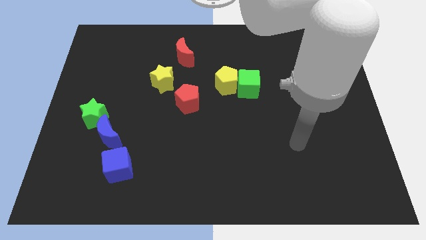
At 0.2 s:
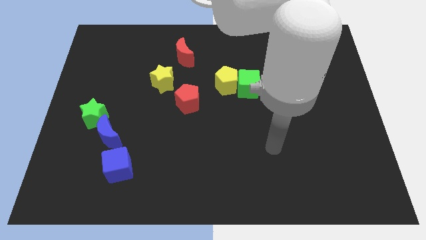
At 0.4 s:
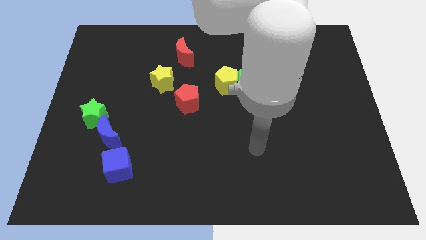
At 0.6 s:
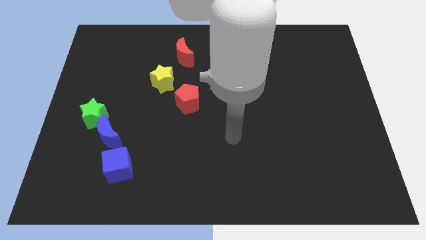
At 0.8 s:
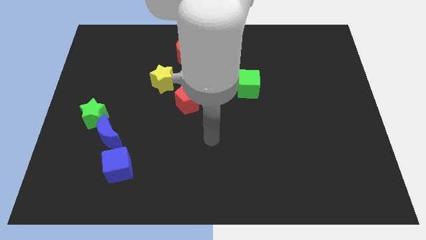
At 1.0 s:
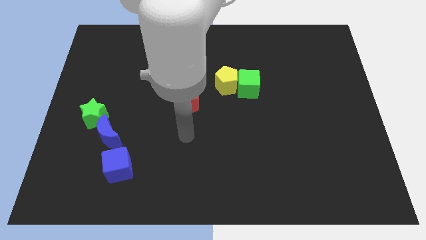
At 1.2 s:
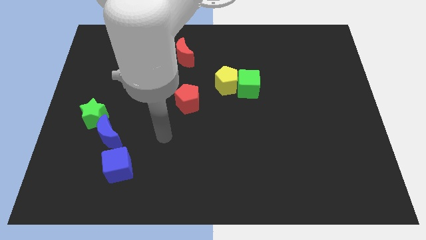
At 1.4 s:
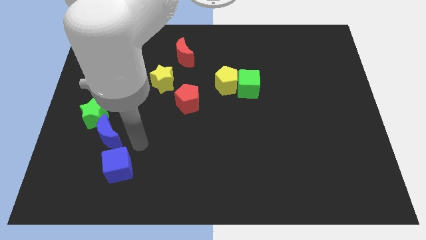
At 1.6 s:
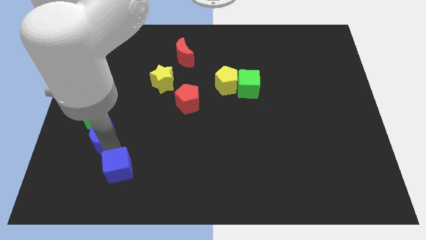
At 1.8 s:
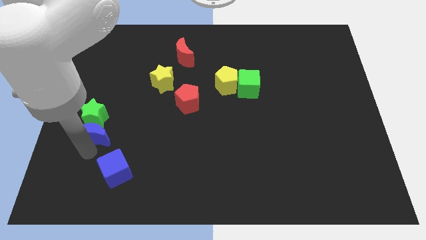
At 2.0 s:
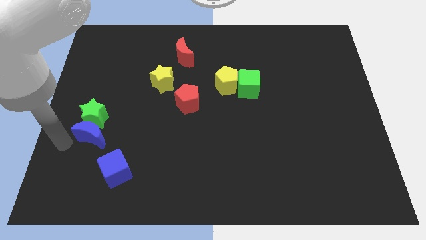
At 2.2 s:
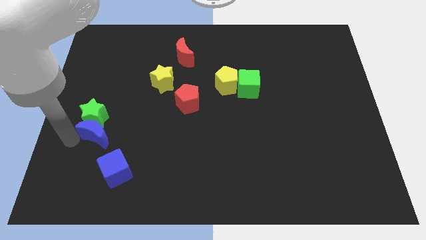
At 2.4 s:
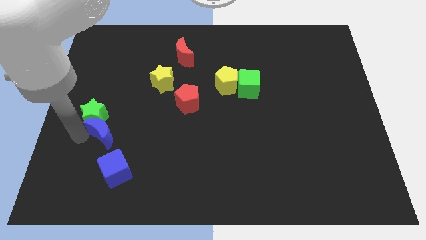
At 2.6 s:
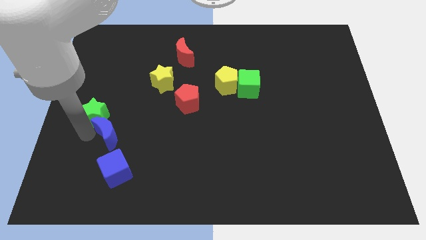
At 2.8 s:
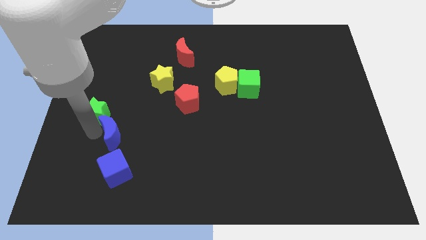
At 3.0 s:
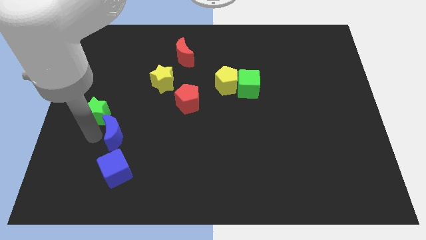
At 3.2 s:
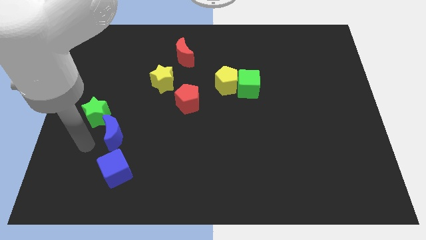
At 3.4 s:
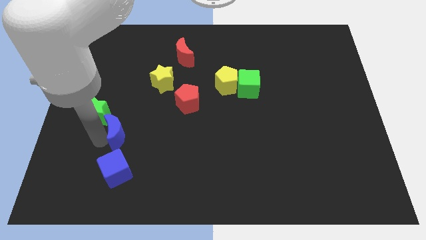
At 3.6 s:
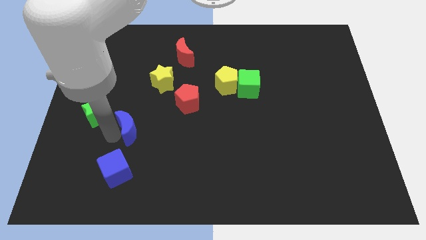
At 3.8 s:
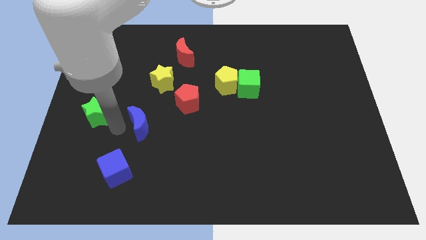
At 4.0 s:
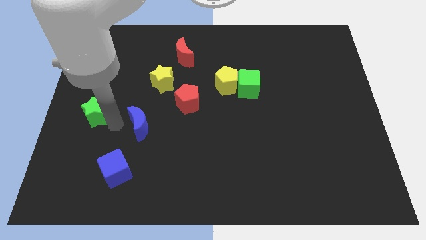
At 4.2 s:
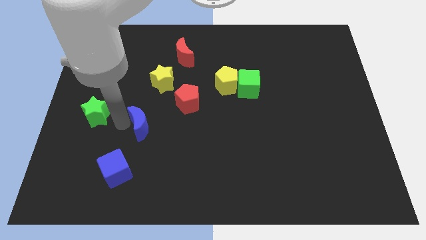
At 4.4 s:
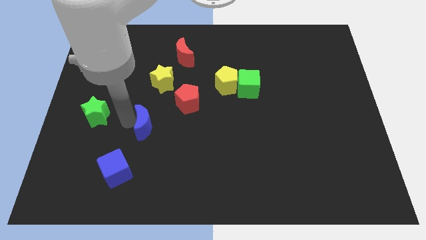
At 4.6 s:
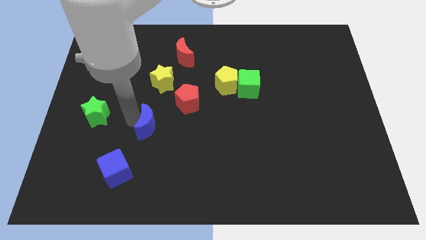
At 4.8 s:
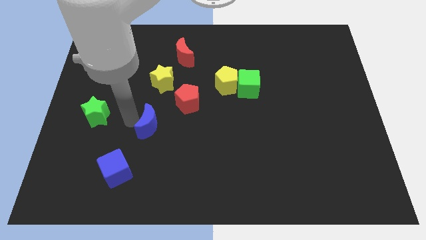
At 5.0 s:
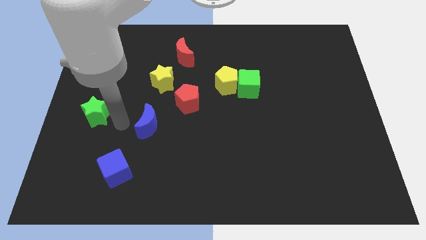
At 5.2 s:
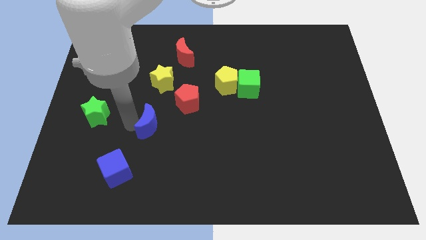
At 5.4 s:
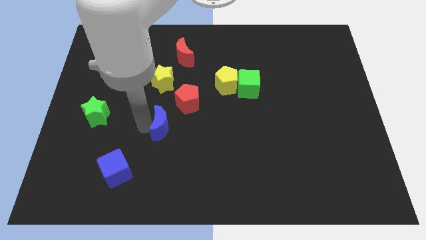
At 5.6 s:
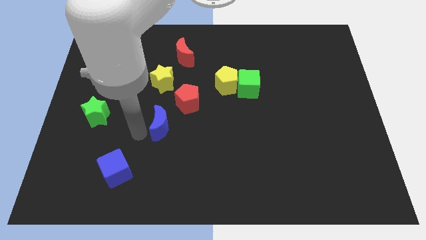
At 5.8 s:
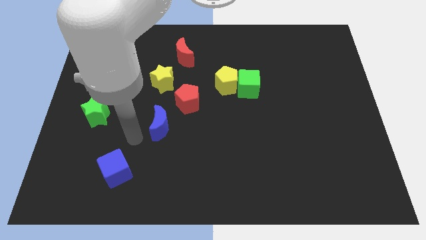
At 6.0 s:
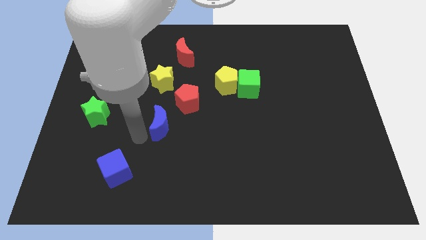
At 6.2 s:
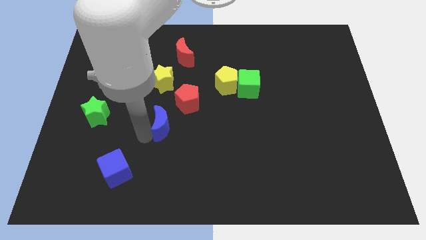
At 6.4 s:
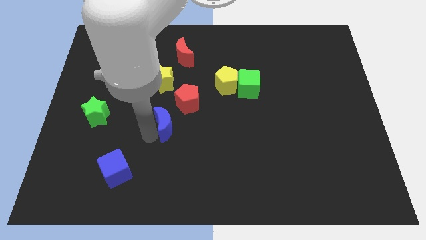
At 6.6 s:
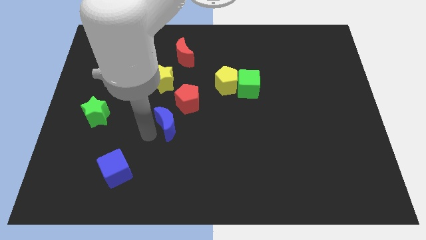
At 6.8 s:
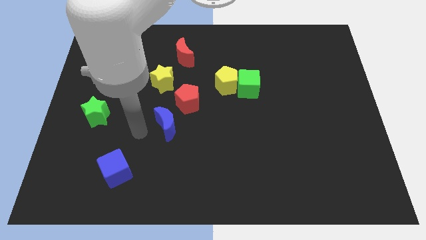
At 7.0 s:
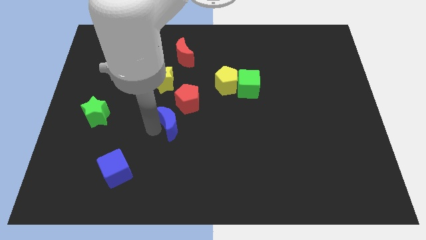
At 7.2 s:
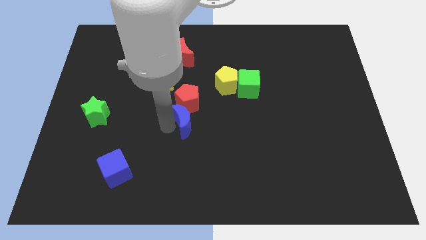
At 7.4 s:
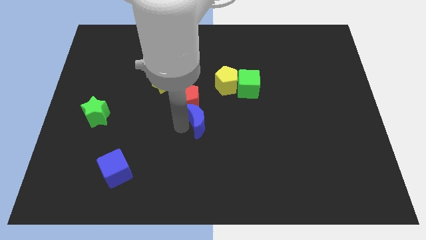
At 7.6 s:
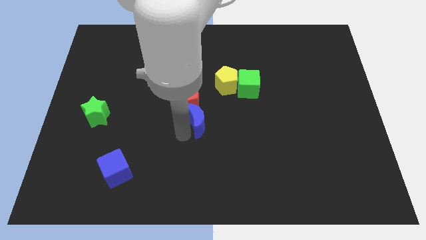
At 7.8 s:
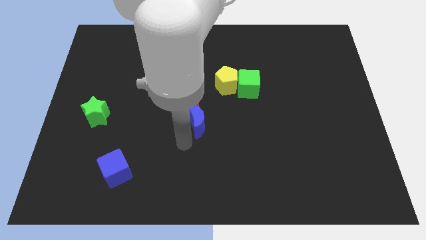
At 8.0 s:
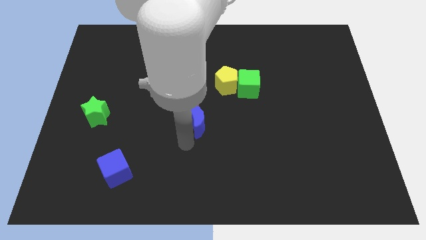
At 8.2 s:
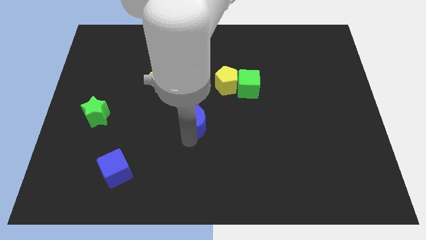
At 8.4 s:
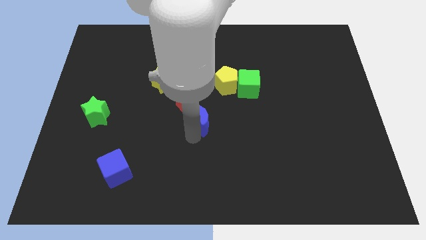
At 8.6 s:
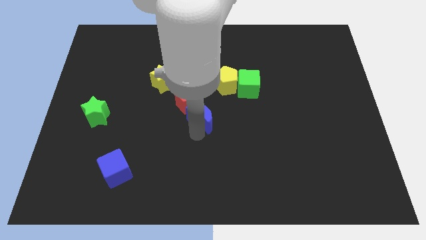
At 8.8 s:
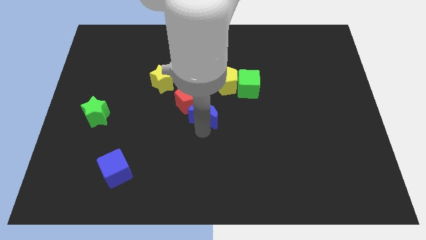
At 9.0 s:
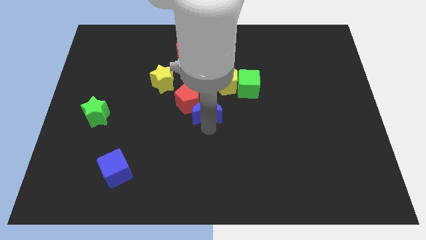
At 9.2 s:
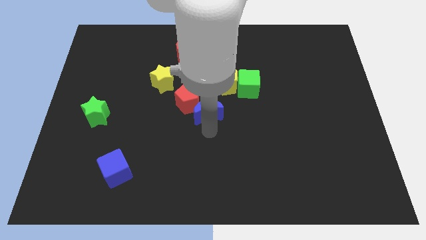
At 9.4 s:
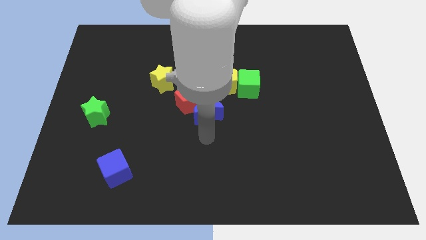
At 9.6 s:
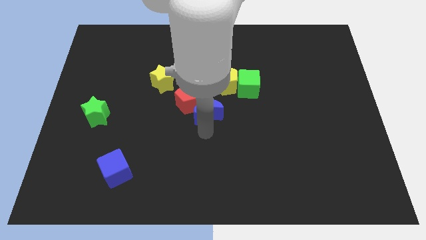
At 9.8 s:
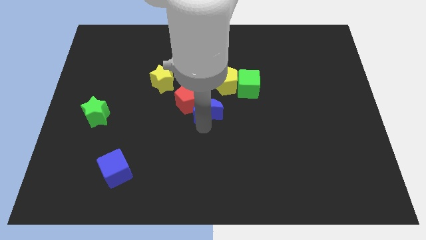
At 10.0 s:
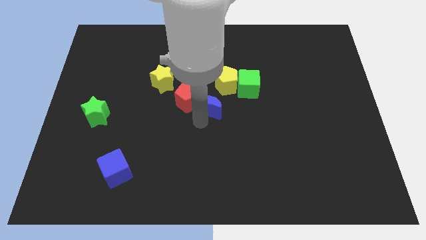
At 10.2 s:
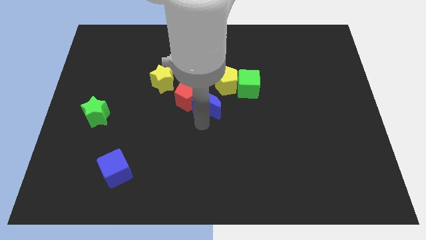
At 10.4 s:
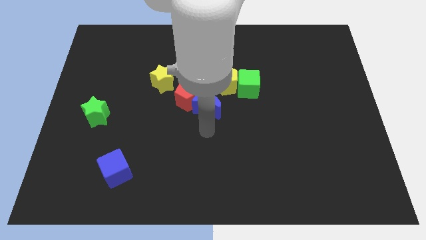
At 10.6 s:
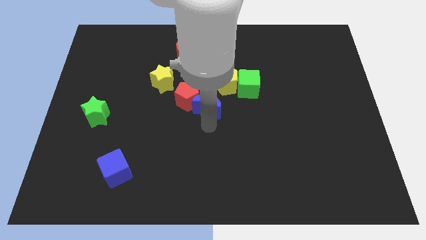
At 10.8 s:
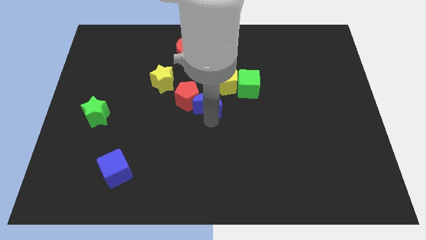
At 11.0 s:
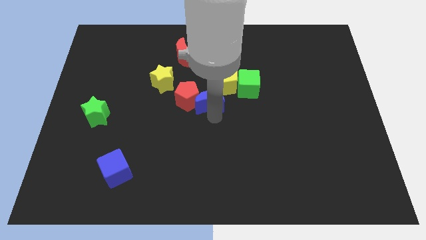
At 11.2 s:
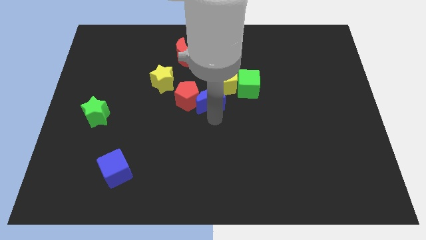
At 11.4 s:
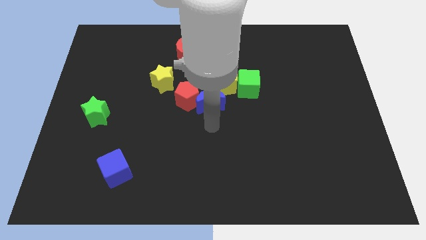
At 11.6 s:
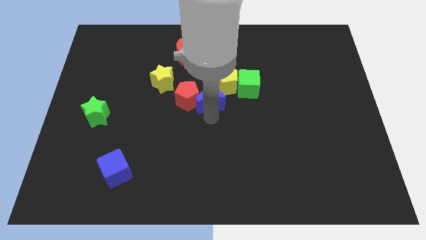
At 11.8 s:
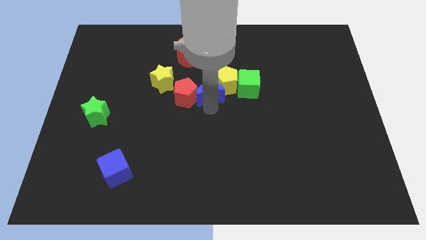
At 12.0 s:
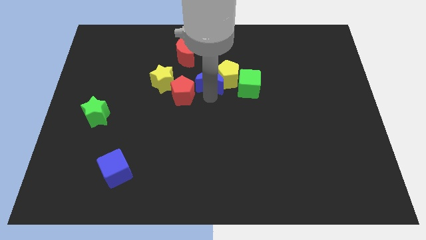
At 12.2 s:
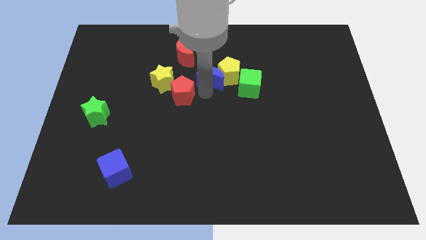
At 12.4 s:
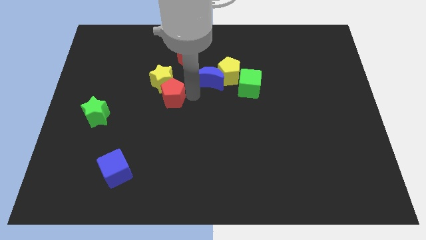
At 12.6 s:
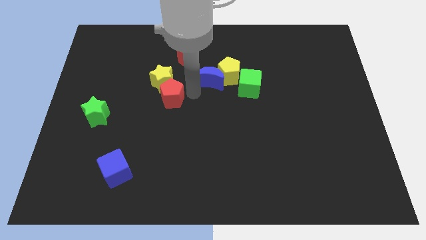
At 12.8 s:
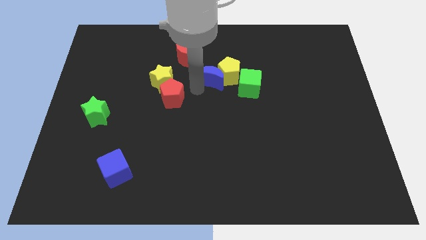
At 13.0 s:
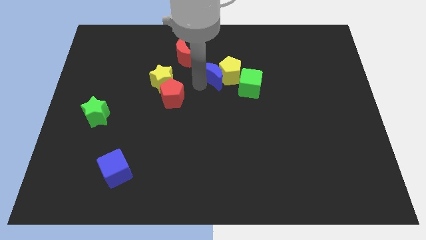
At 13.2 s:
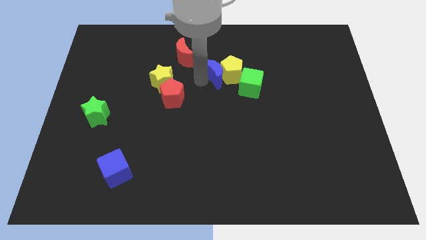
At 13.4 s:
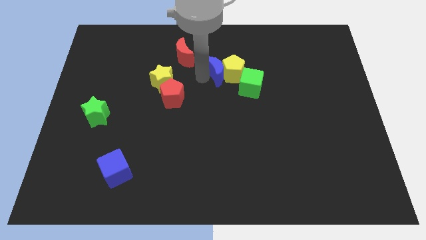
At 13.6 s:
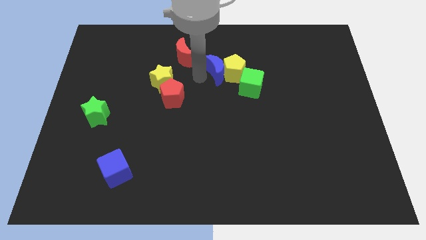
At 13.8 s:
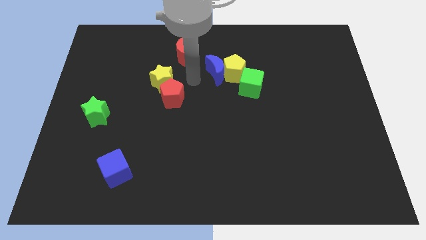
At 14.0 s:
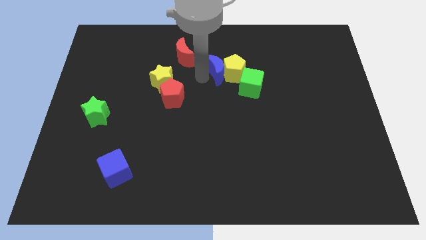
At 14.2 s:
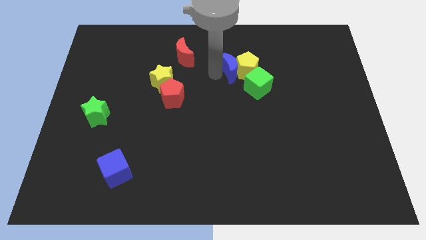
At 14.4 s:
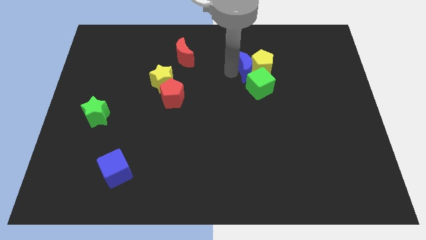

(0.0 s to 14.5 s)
push the blue moon to the top side of the green cube
